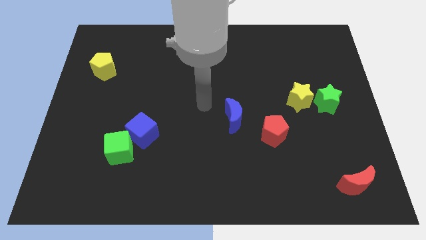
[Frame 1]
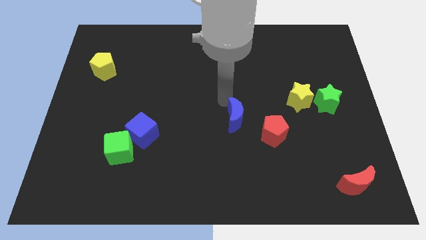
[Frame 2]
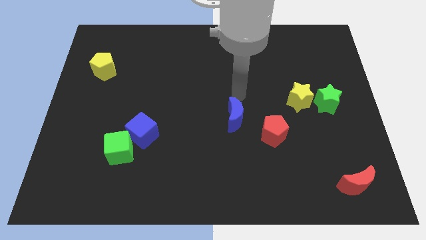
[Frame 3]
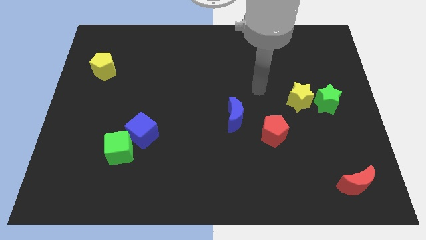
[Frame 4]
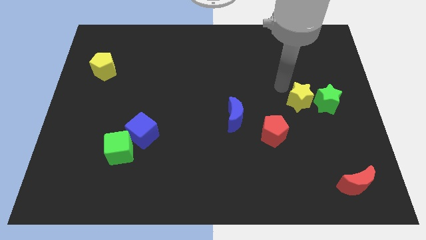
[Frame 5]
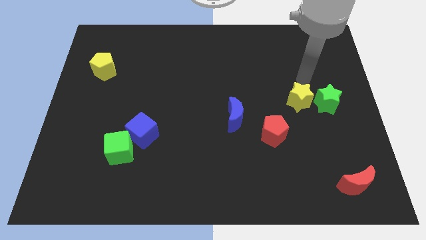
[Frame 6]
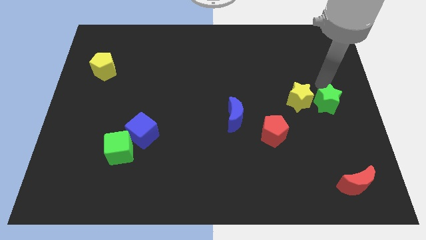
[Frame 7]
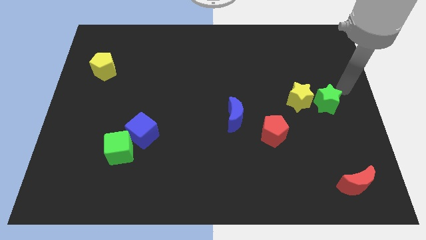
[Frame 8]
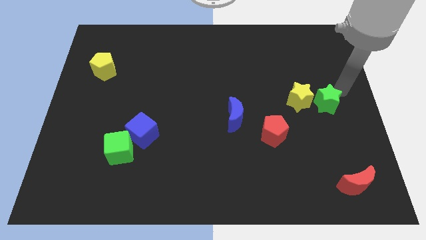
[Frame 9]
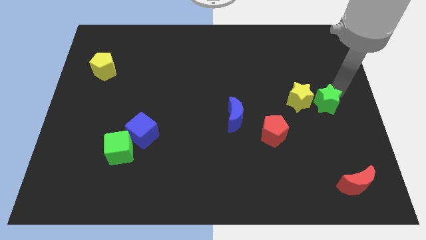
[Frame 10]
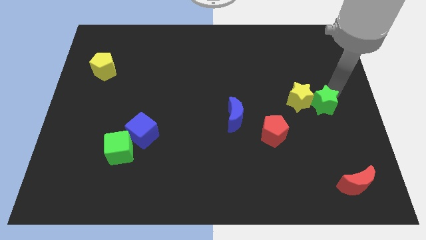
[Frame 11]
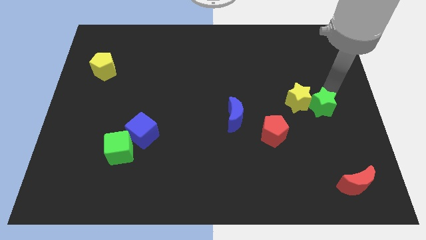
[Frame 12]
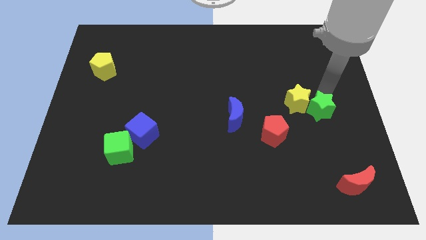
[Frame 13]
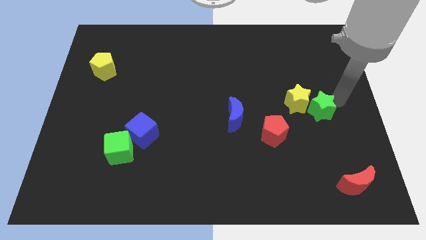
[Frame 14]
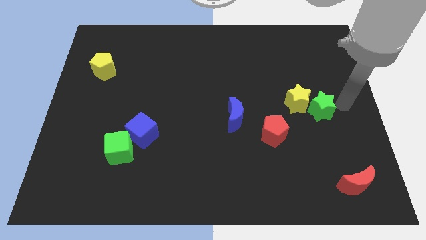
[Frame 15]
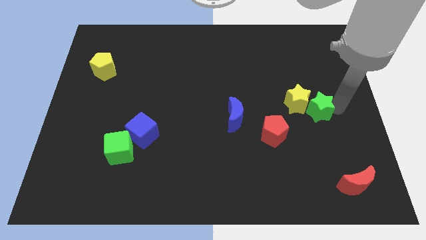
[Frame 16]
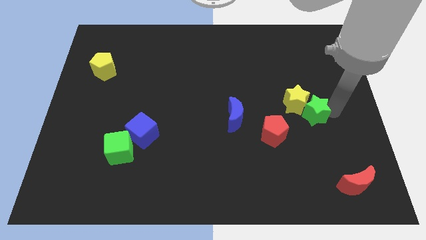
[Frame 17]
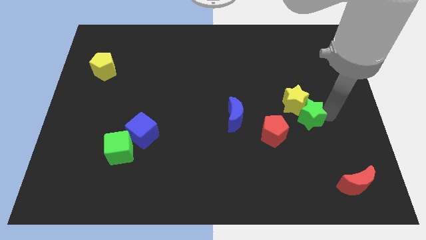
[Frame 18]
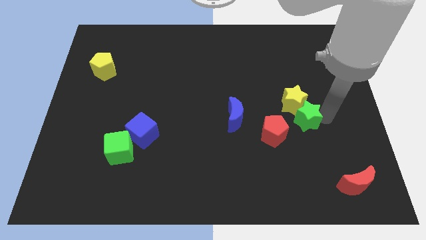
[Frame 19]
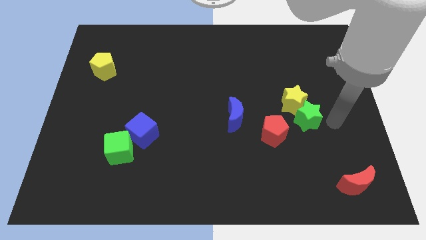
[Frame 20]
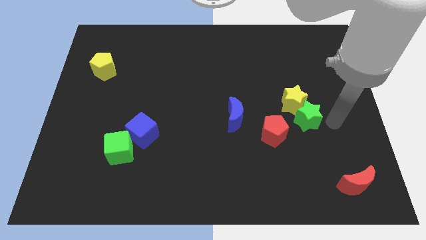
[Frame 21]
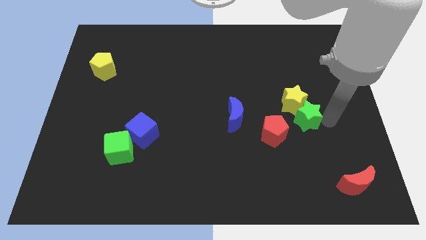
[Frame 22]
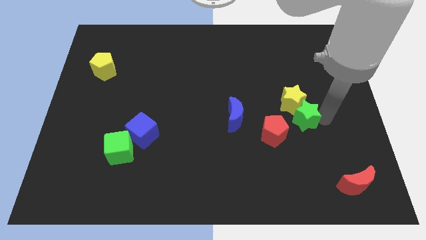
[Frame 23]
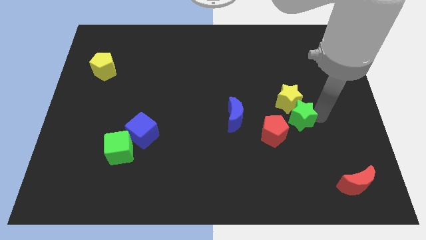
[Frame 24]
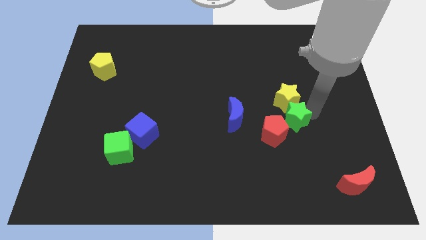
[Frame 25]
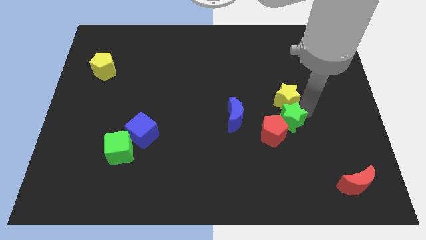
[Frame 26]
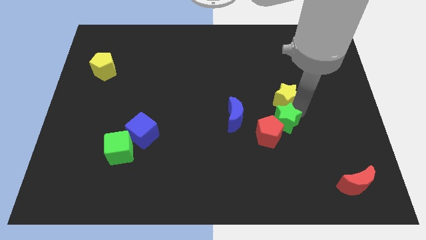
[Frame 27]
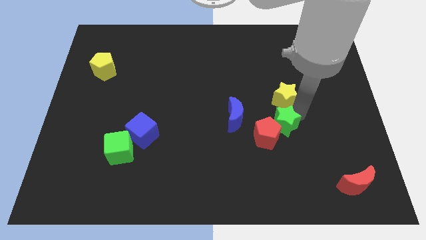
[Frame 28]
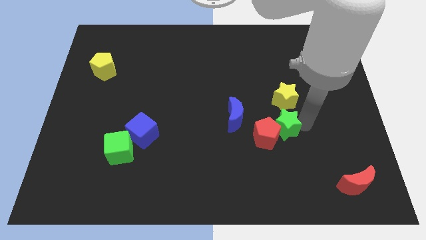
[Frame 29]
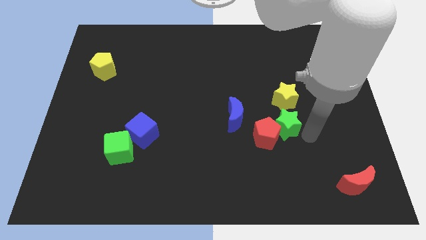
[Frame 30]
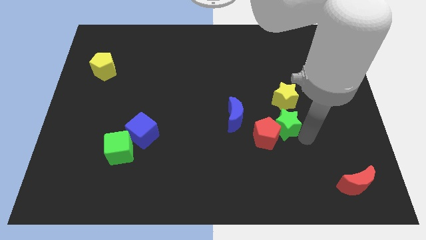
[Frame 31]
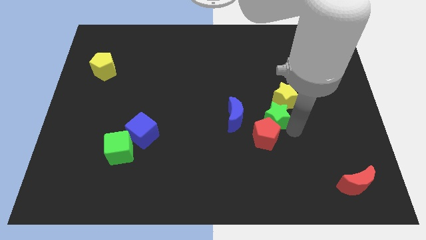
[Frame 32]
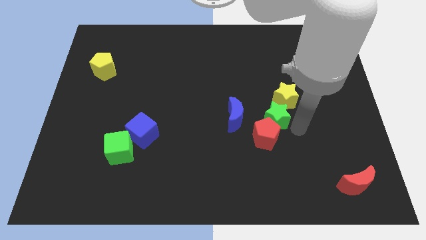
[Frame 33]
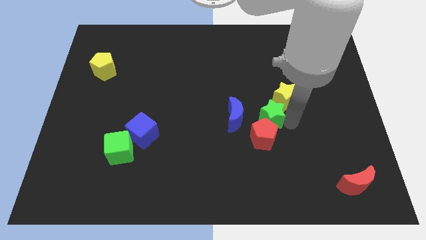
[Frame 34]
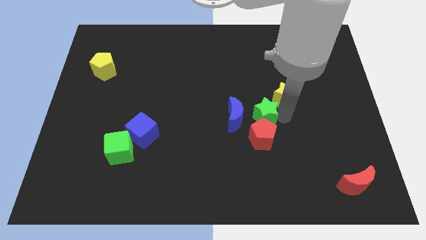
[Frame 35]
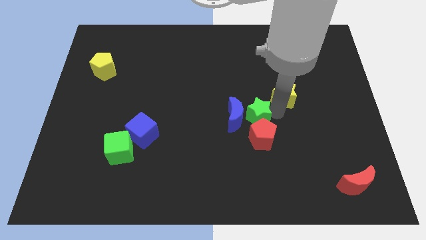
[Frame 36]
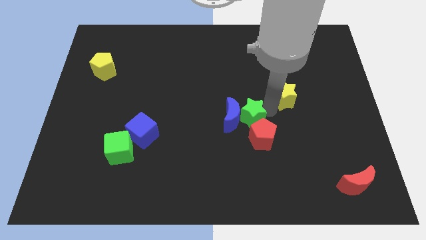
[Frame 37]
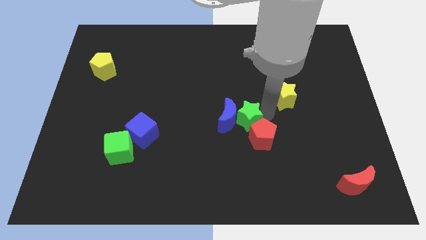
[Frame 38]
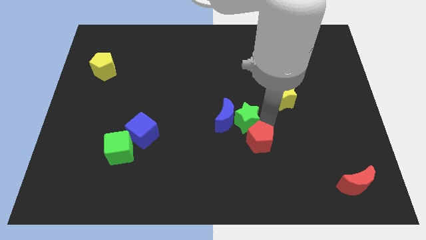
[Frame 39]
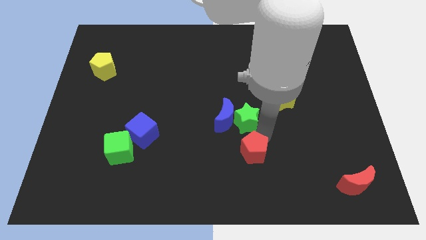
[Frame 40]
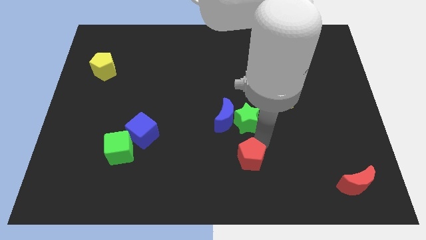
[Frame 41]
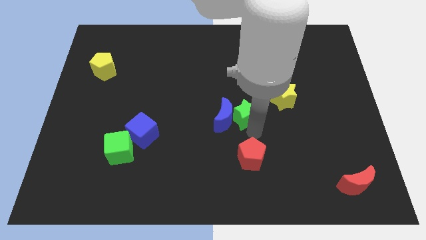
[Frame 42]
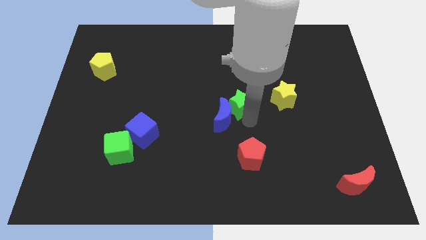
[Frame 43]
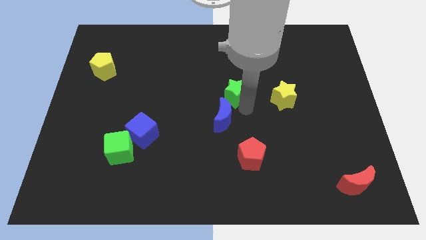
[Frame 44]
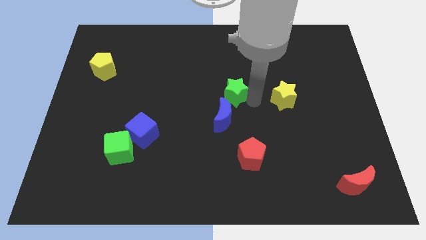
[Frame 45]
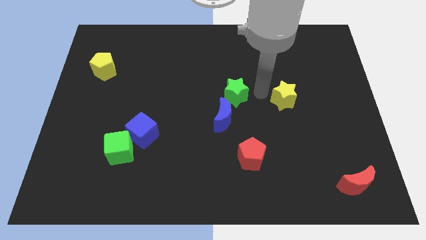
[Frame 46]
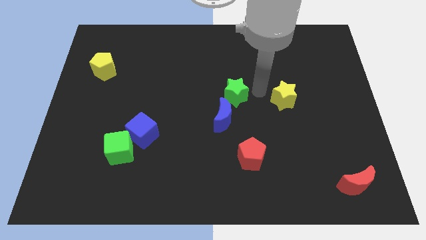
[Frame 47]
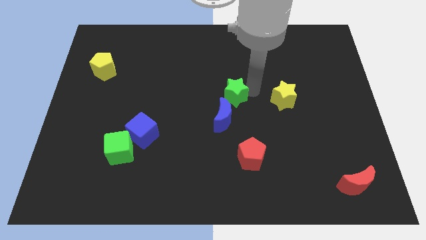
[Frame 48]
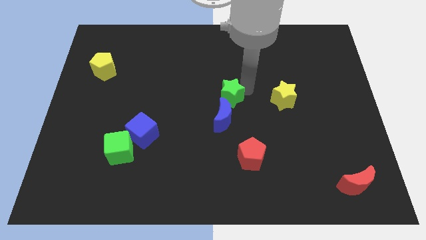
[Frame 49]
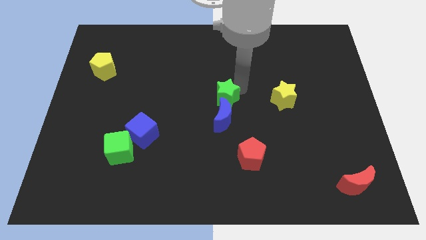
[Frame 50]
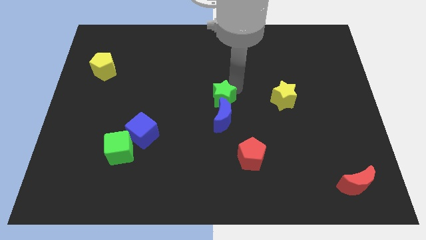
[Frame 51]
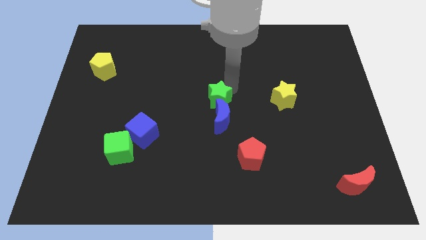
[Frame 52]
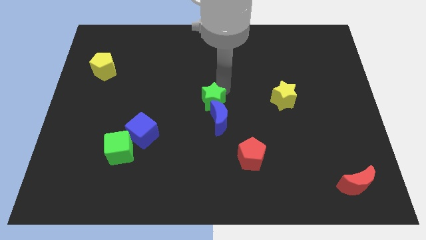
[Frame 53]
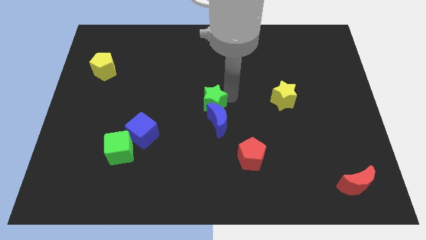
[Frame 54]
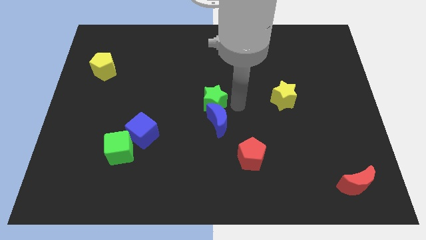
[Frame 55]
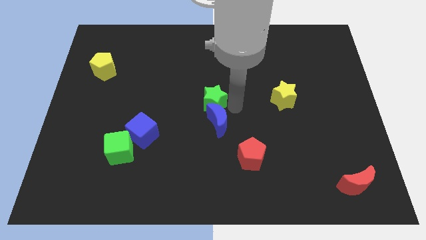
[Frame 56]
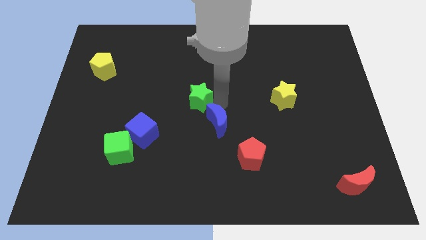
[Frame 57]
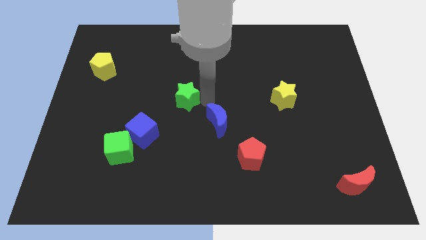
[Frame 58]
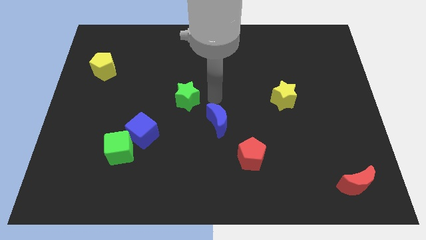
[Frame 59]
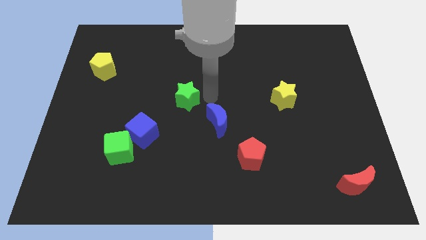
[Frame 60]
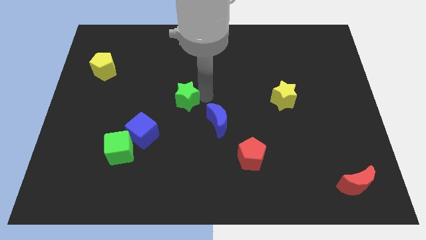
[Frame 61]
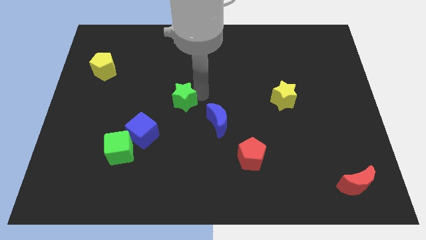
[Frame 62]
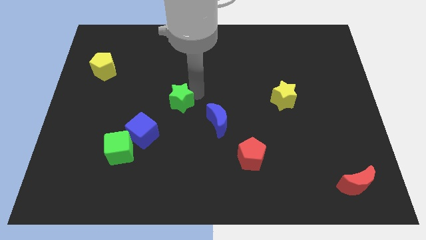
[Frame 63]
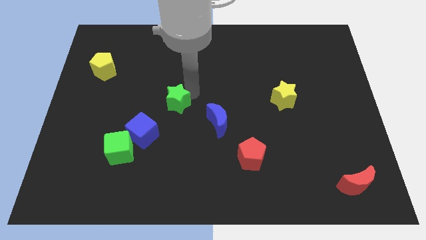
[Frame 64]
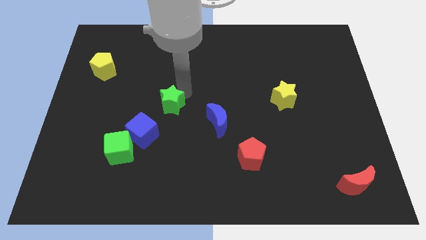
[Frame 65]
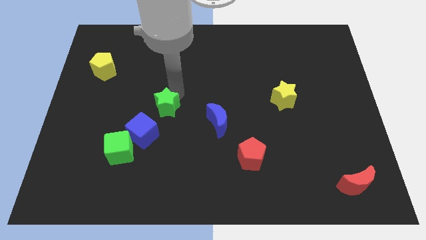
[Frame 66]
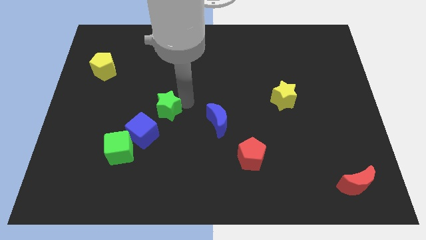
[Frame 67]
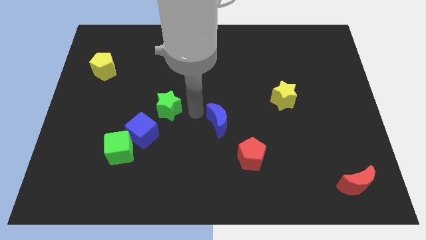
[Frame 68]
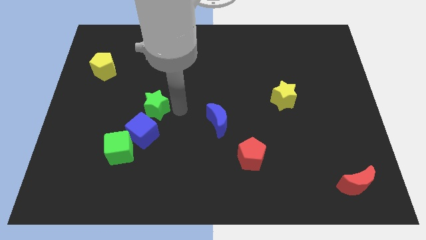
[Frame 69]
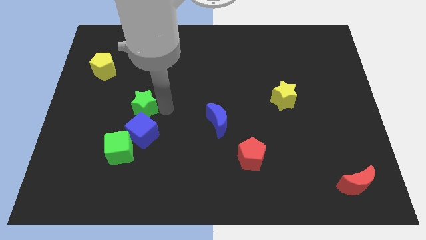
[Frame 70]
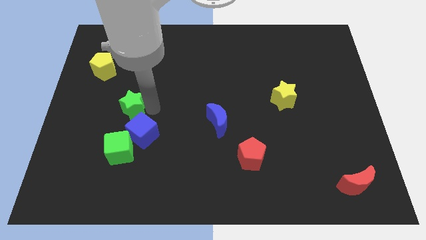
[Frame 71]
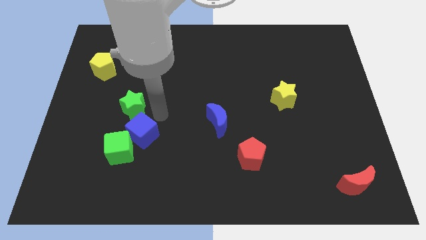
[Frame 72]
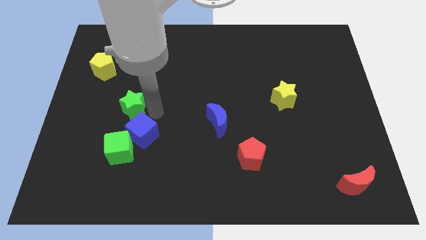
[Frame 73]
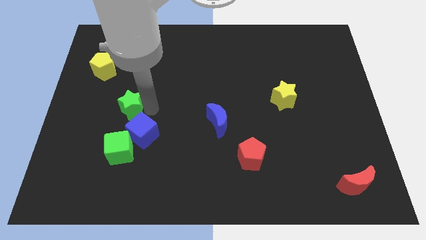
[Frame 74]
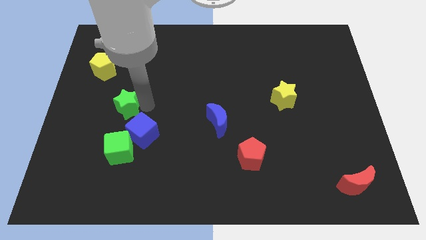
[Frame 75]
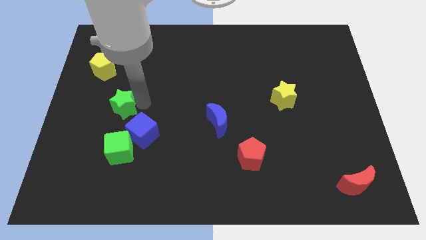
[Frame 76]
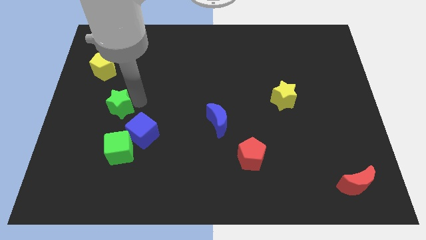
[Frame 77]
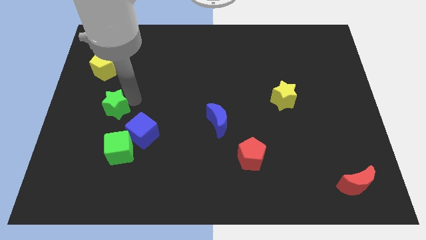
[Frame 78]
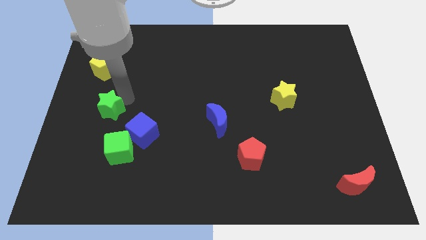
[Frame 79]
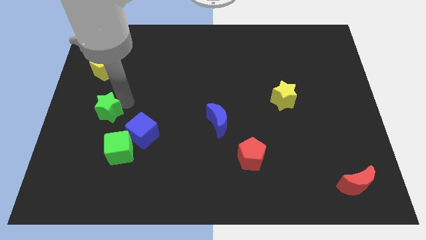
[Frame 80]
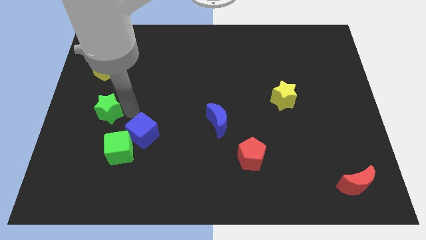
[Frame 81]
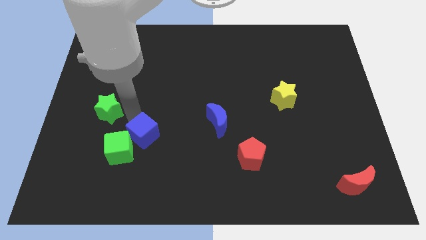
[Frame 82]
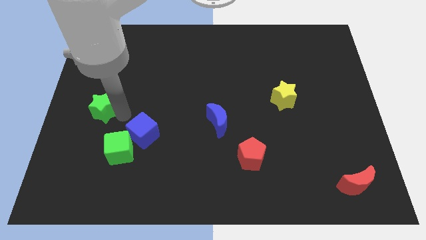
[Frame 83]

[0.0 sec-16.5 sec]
move the green star to the left side of the board
